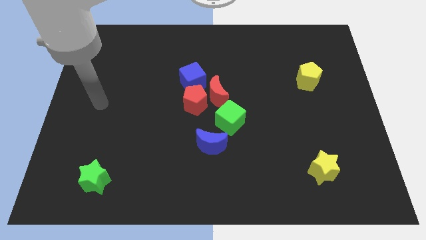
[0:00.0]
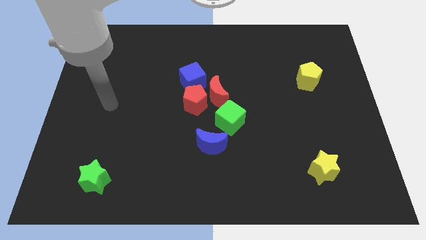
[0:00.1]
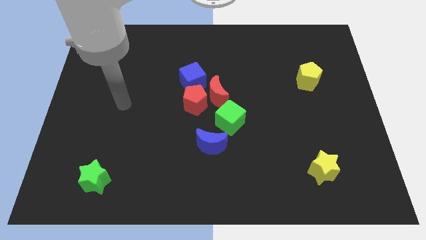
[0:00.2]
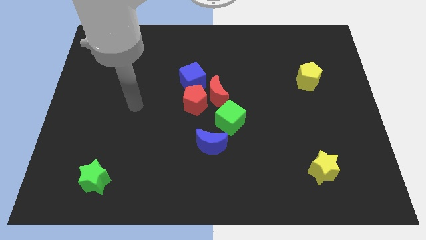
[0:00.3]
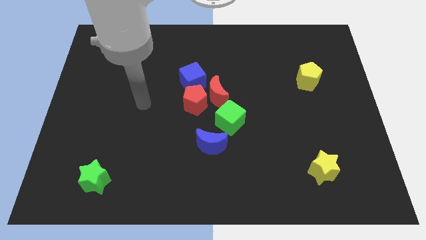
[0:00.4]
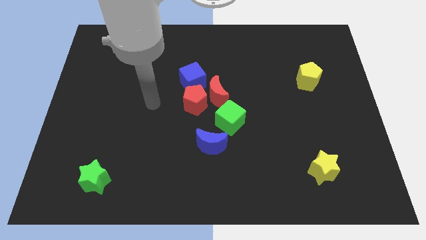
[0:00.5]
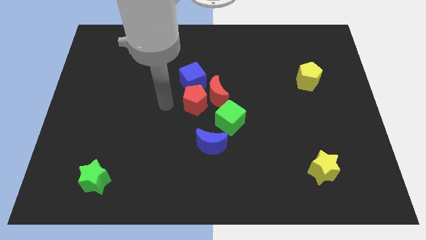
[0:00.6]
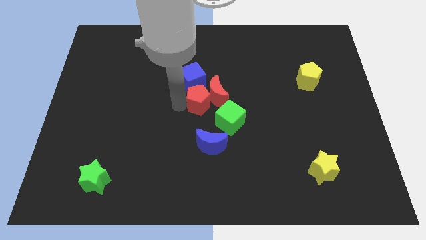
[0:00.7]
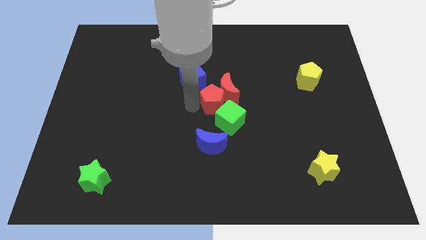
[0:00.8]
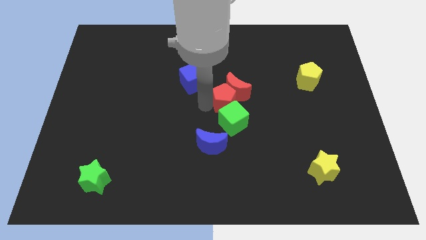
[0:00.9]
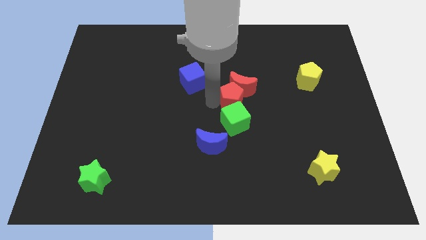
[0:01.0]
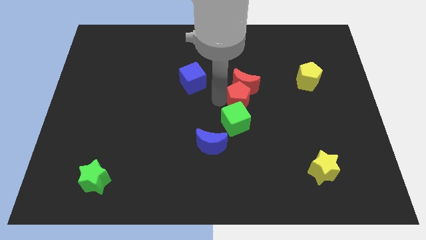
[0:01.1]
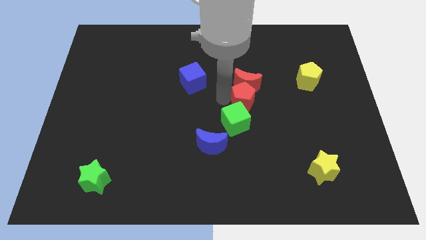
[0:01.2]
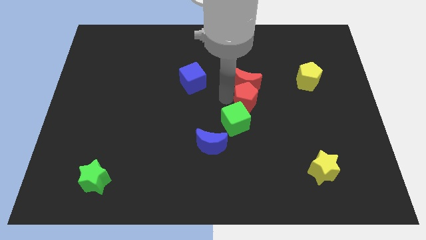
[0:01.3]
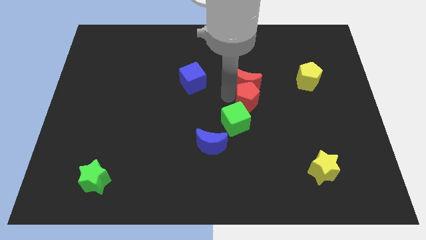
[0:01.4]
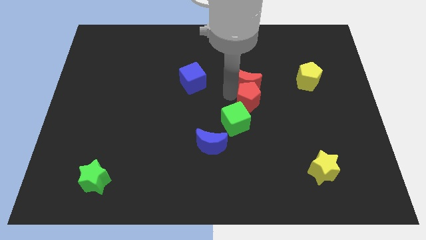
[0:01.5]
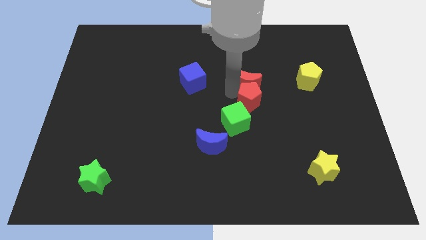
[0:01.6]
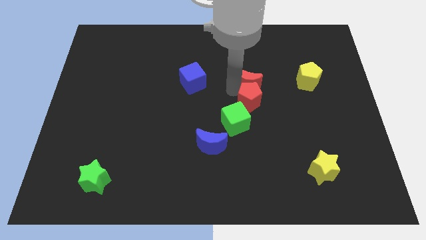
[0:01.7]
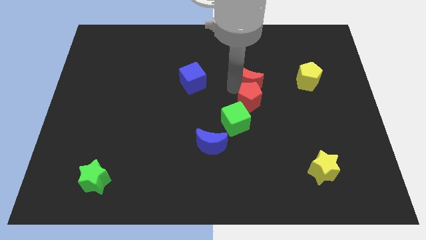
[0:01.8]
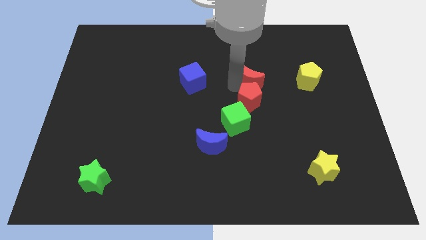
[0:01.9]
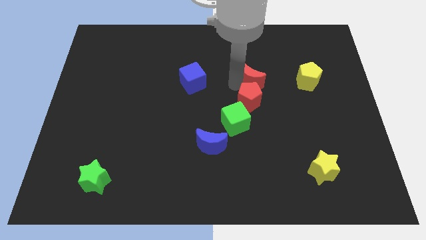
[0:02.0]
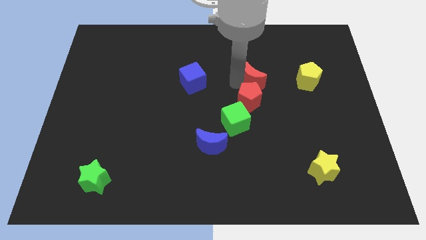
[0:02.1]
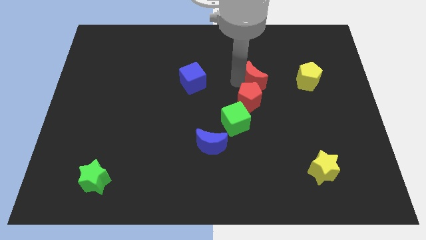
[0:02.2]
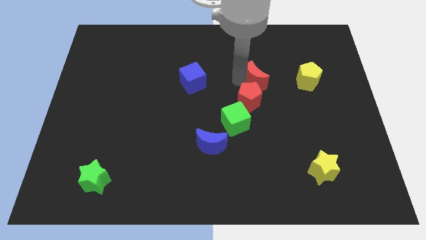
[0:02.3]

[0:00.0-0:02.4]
pull the red moon apart from the red pentagon, blue cube, and green cube

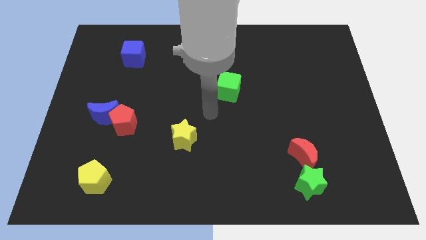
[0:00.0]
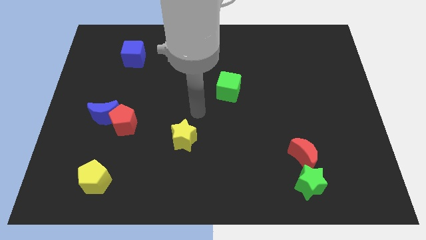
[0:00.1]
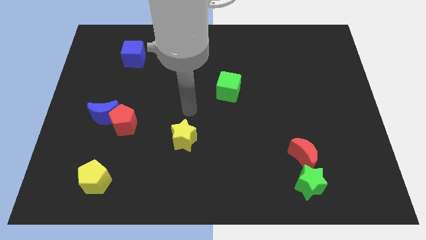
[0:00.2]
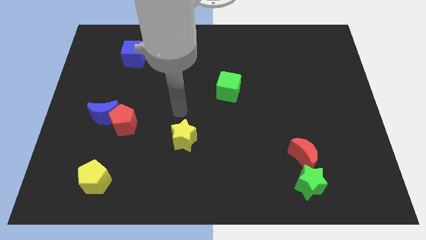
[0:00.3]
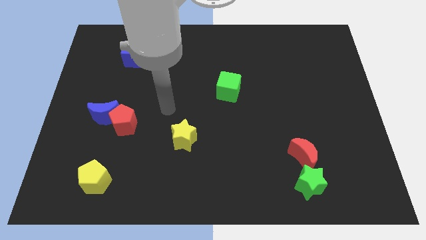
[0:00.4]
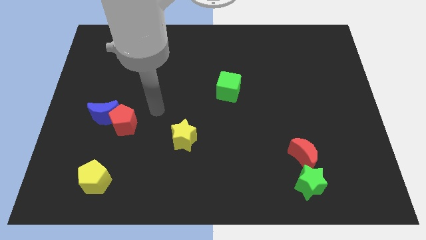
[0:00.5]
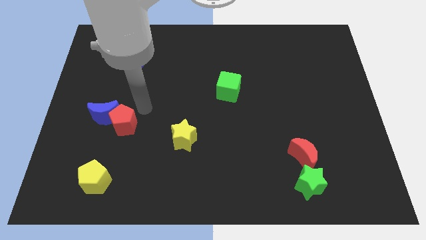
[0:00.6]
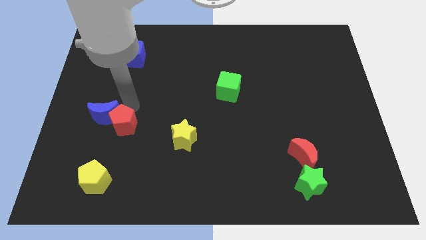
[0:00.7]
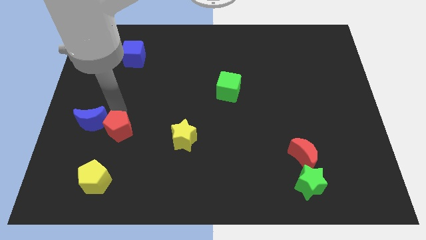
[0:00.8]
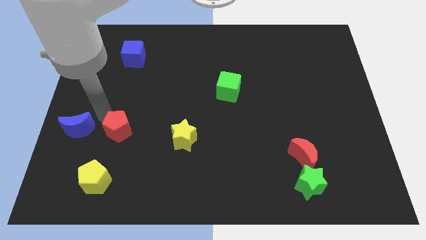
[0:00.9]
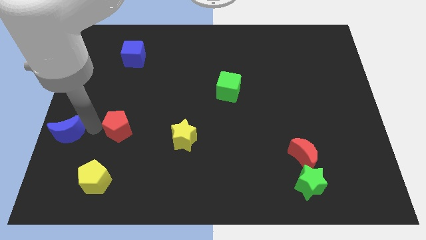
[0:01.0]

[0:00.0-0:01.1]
move the red pentagon away from the blue moon

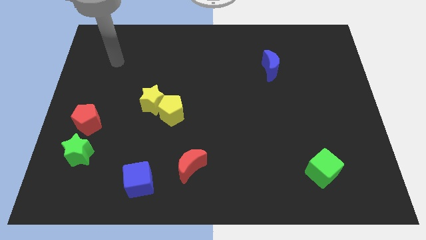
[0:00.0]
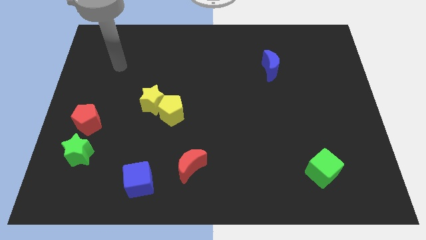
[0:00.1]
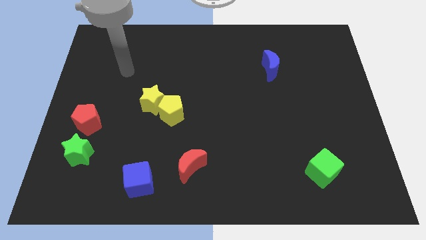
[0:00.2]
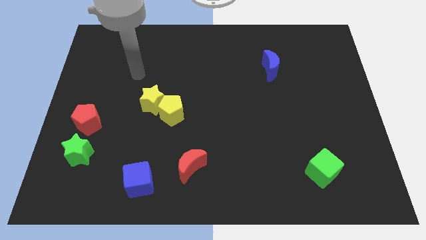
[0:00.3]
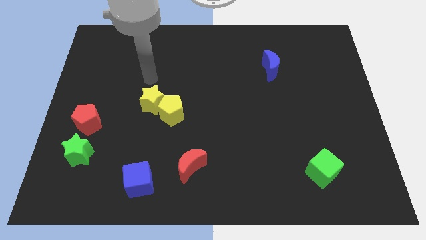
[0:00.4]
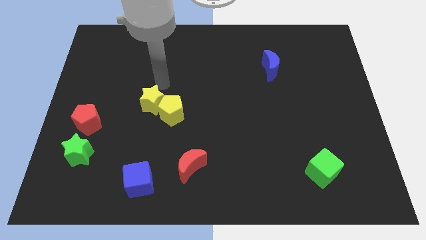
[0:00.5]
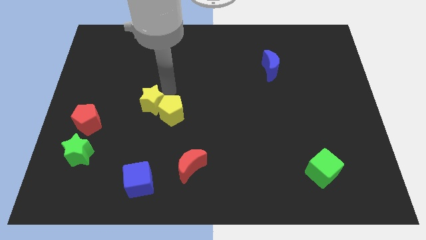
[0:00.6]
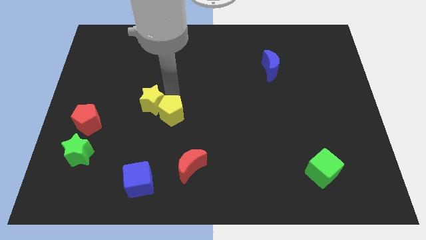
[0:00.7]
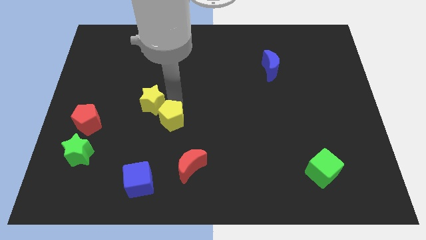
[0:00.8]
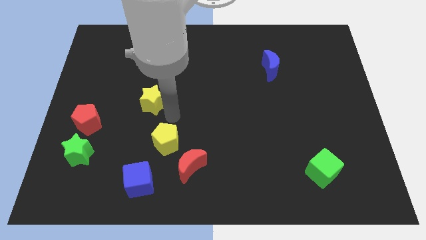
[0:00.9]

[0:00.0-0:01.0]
separate the yellow star from the yellow pentagon

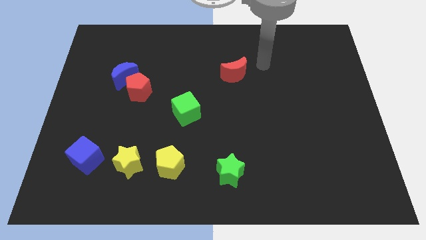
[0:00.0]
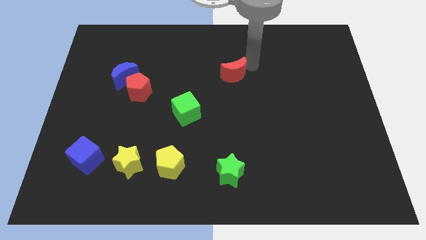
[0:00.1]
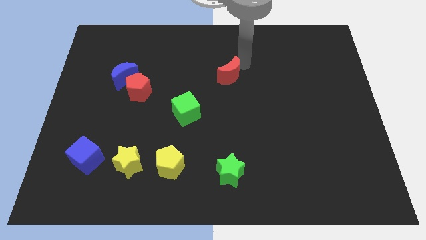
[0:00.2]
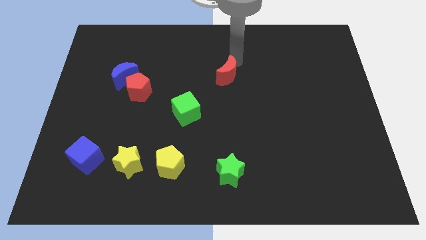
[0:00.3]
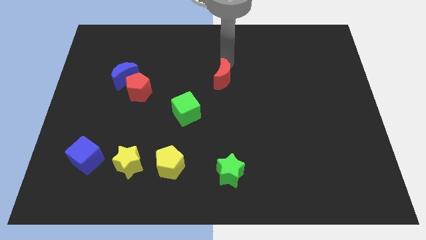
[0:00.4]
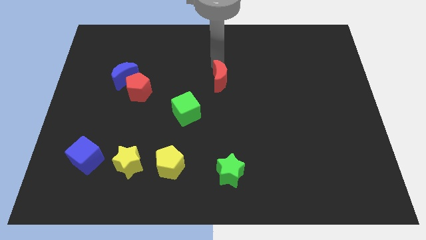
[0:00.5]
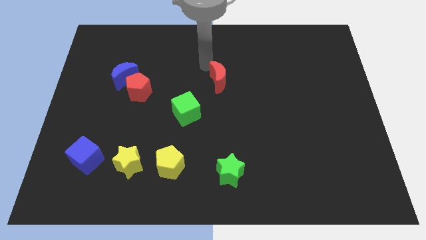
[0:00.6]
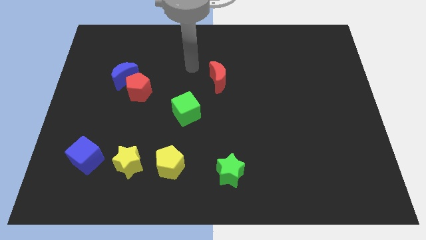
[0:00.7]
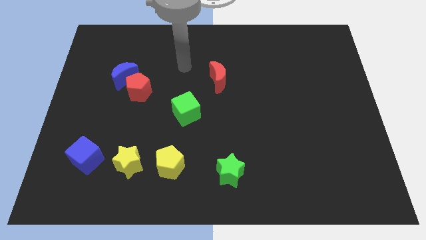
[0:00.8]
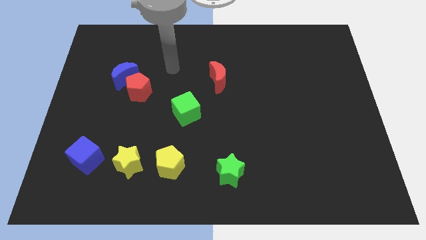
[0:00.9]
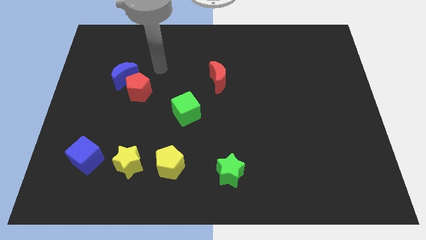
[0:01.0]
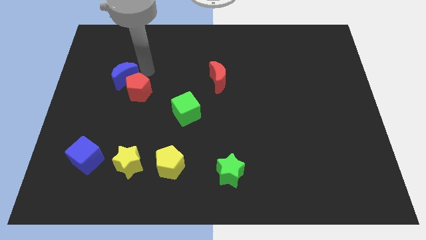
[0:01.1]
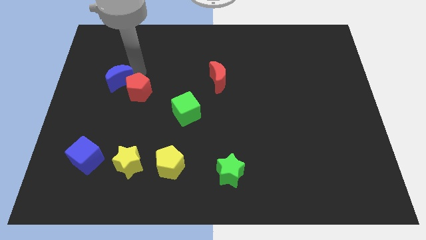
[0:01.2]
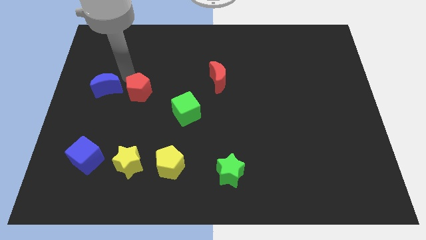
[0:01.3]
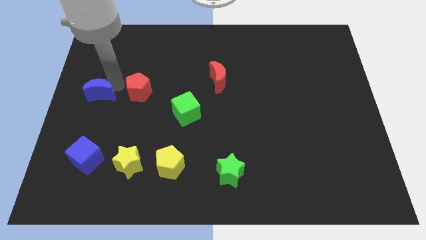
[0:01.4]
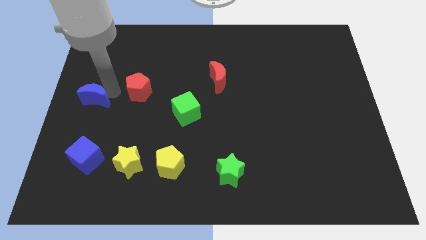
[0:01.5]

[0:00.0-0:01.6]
pull the red pentagon apart from the blue moon

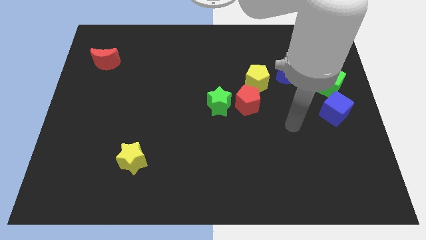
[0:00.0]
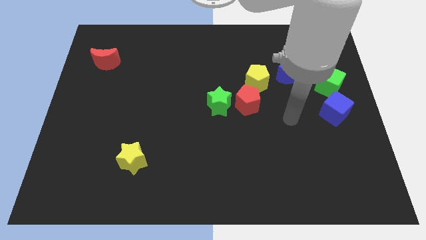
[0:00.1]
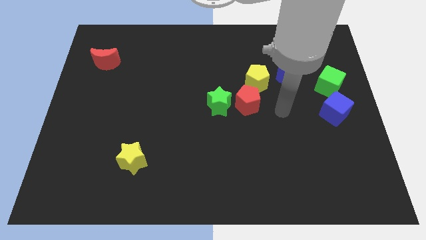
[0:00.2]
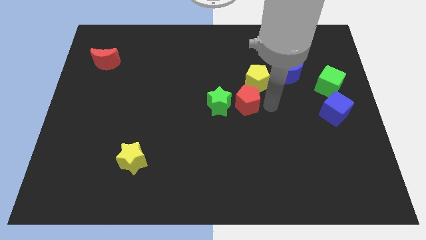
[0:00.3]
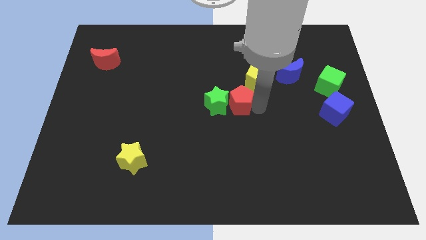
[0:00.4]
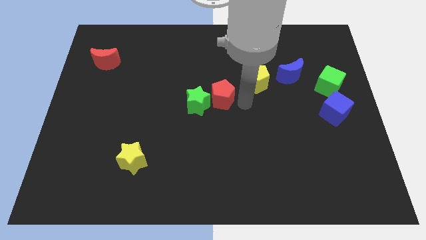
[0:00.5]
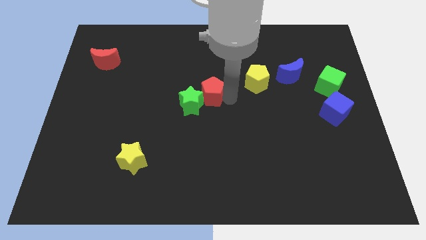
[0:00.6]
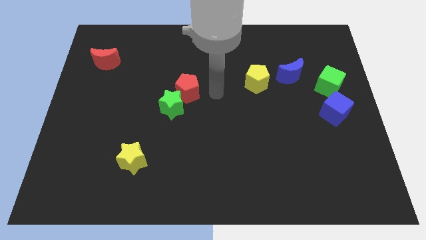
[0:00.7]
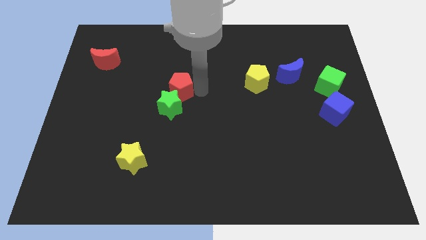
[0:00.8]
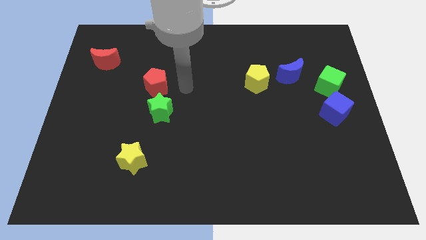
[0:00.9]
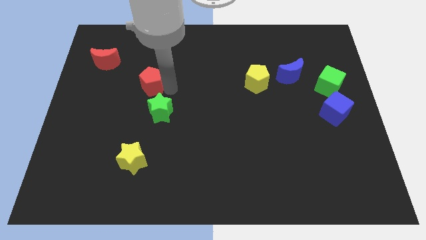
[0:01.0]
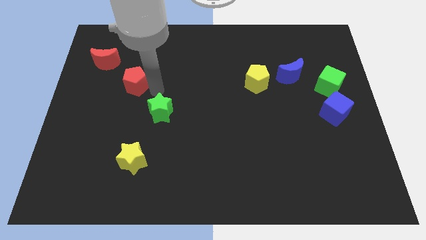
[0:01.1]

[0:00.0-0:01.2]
move the green star away from the red pentagon

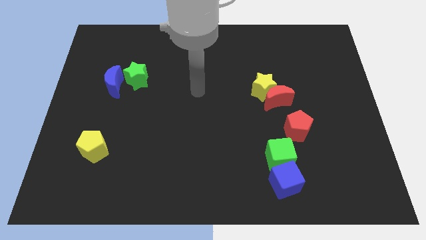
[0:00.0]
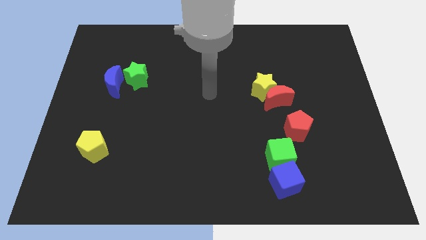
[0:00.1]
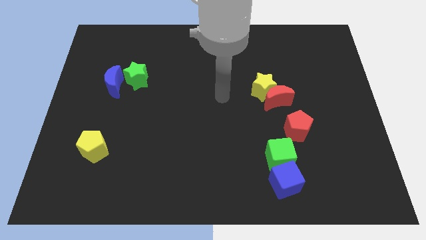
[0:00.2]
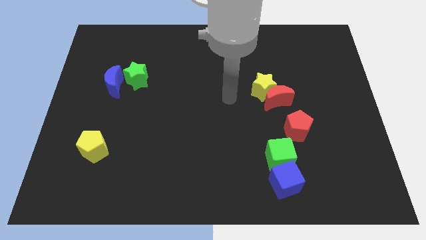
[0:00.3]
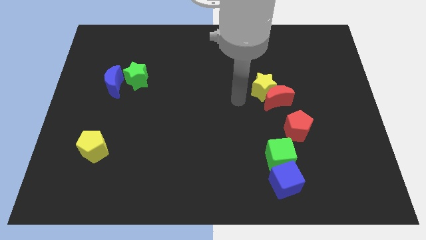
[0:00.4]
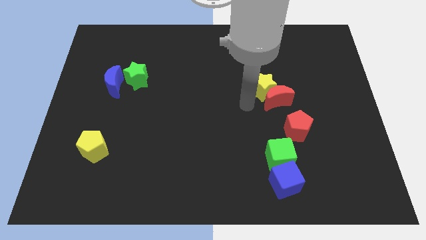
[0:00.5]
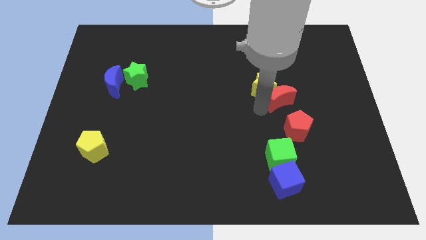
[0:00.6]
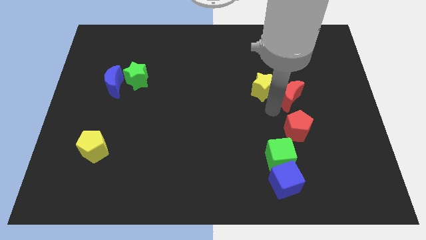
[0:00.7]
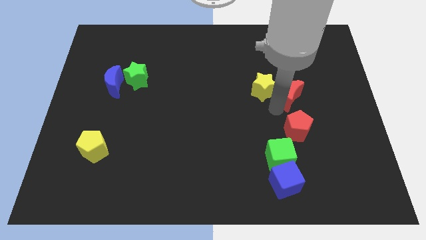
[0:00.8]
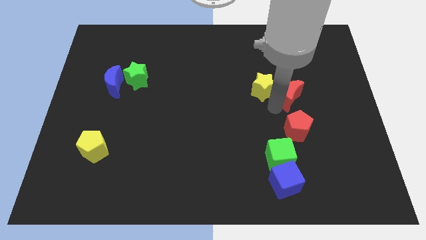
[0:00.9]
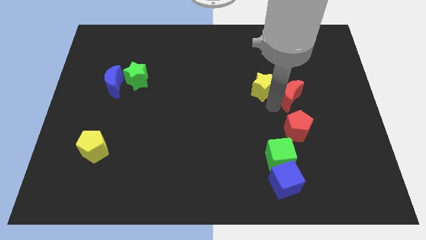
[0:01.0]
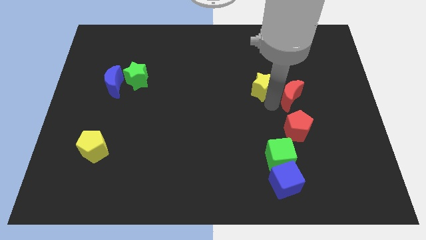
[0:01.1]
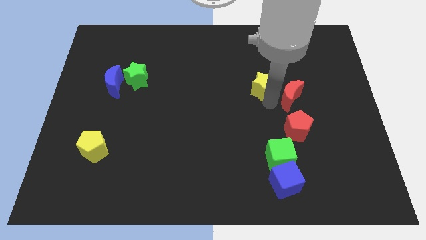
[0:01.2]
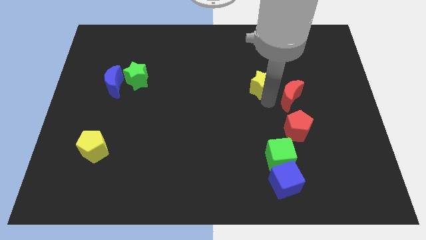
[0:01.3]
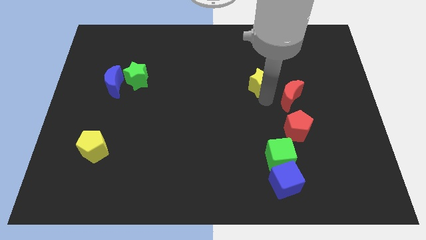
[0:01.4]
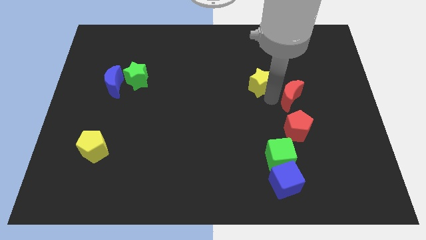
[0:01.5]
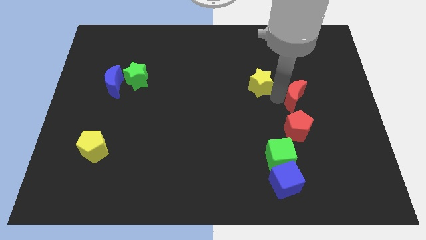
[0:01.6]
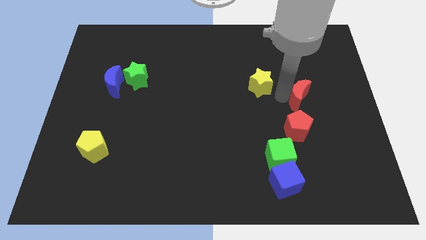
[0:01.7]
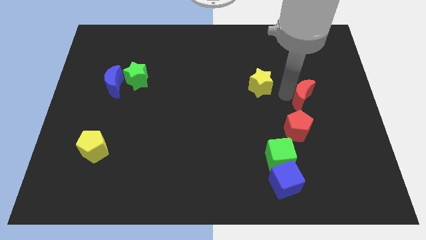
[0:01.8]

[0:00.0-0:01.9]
pull the yellow star apart from the red moon
